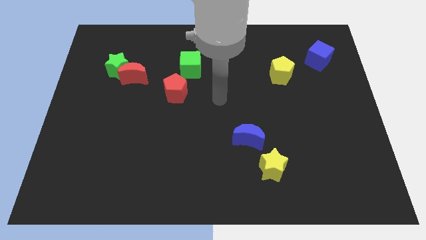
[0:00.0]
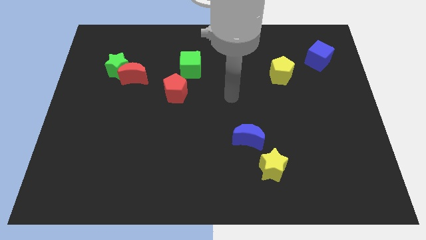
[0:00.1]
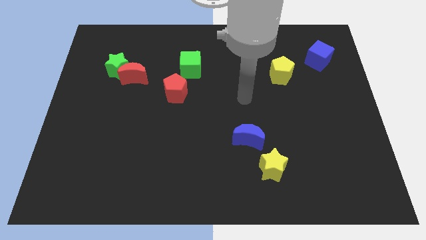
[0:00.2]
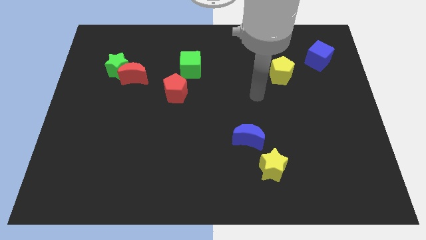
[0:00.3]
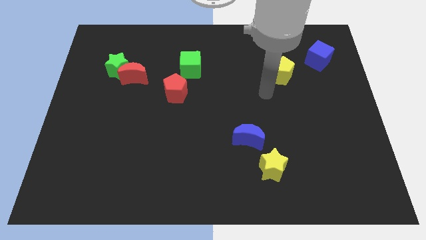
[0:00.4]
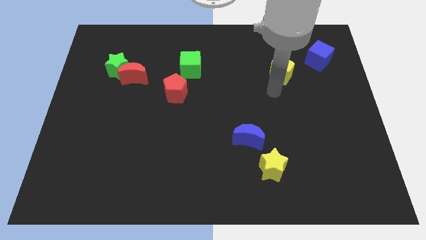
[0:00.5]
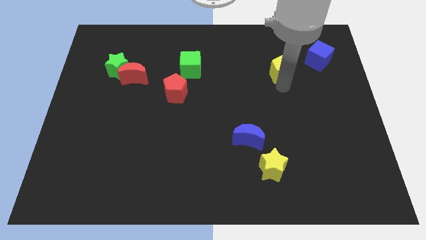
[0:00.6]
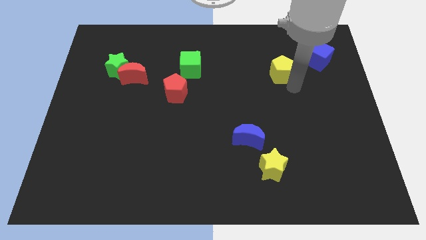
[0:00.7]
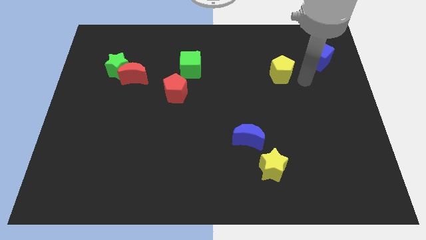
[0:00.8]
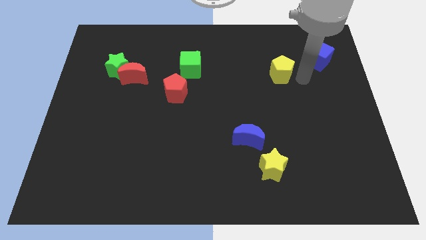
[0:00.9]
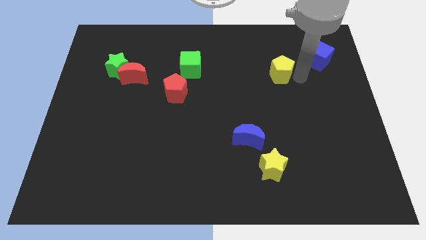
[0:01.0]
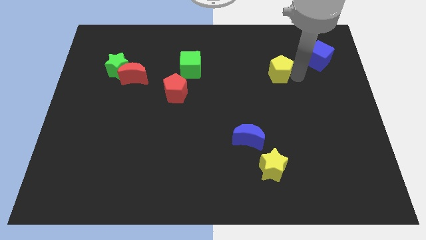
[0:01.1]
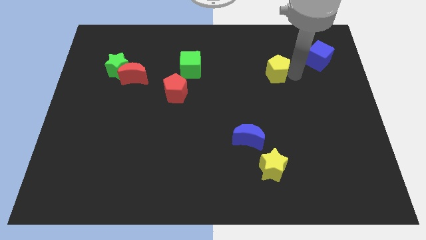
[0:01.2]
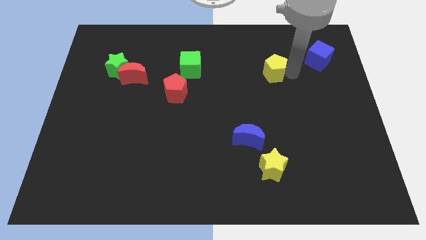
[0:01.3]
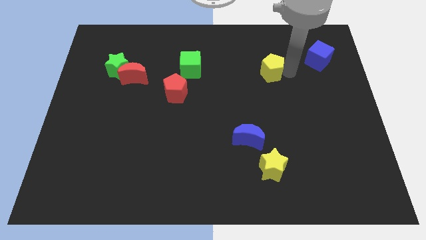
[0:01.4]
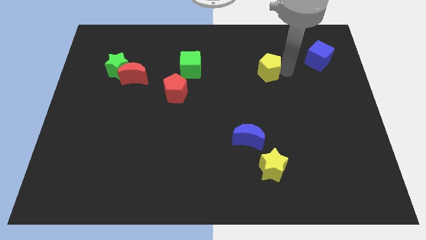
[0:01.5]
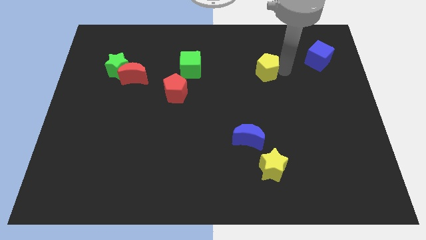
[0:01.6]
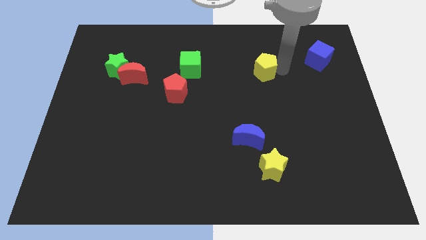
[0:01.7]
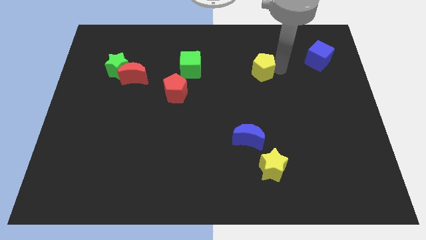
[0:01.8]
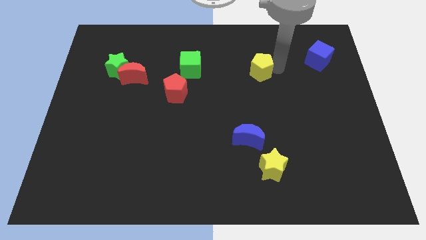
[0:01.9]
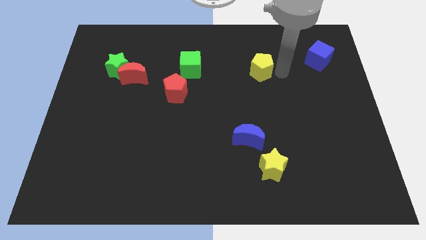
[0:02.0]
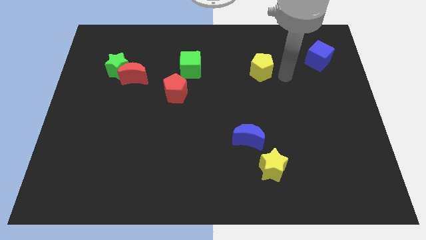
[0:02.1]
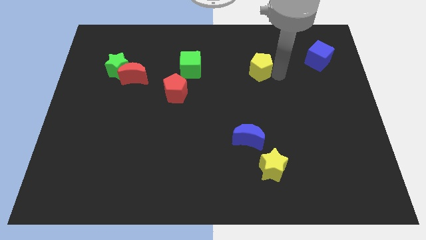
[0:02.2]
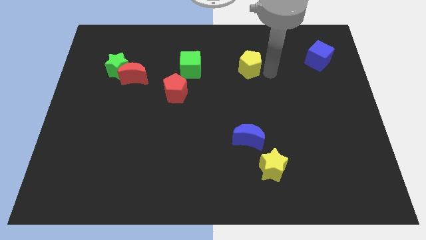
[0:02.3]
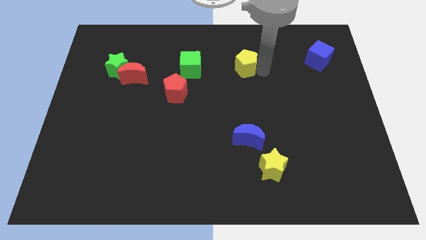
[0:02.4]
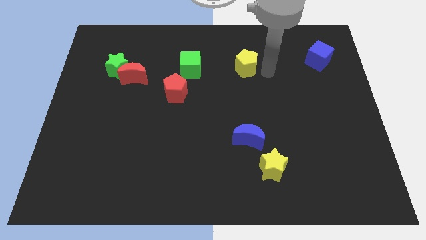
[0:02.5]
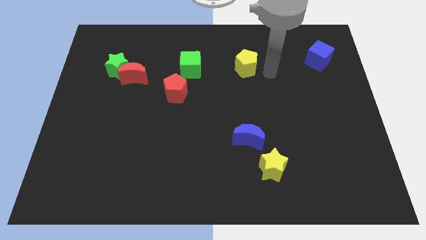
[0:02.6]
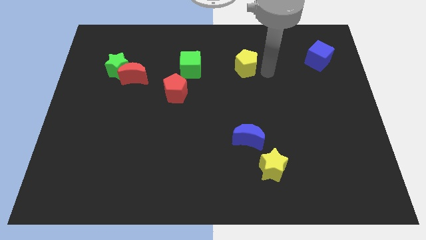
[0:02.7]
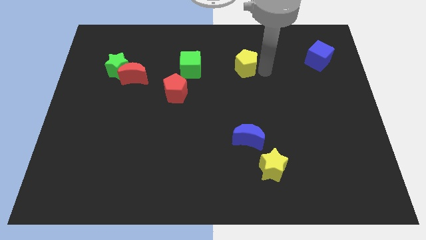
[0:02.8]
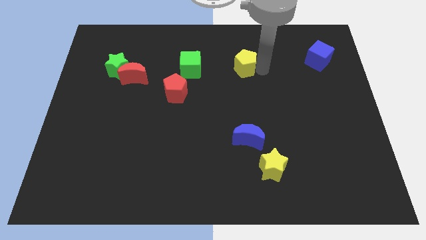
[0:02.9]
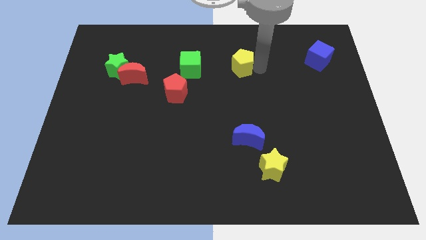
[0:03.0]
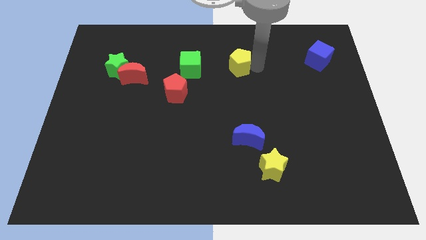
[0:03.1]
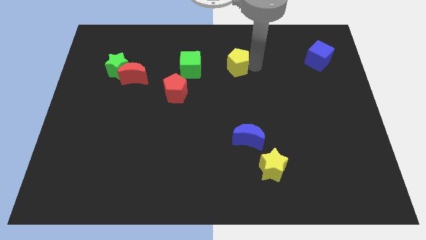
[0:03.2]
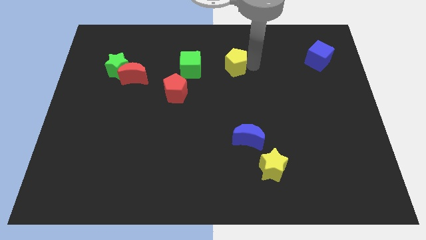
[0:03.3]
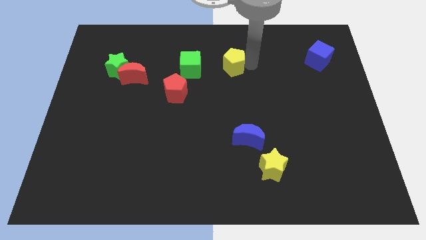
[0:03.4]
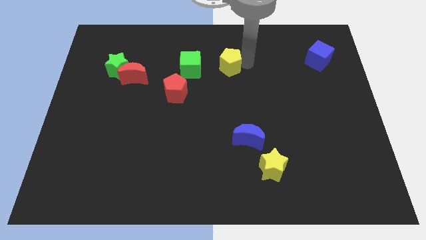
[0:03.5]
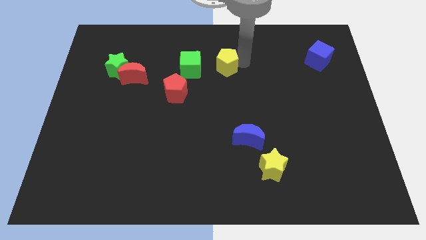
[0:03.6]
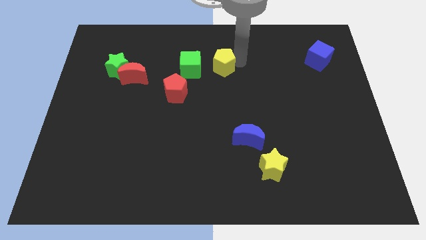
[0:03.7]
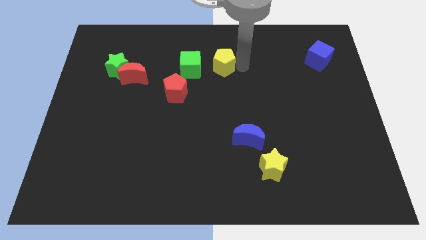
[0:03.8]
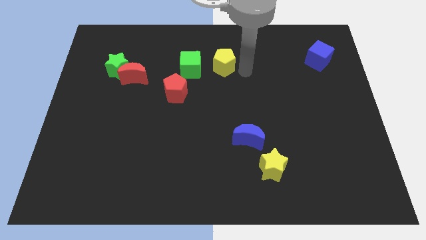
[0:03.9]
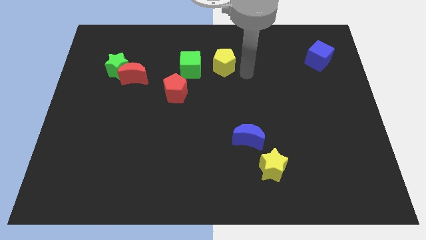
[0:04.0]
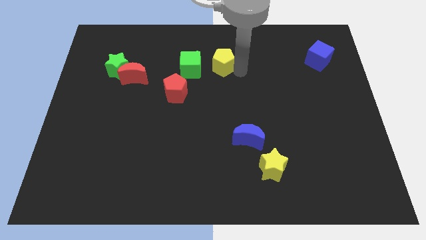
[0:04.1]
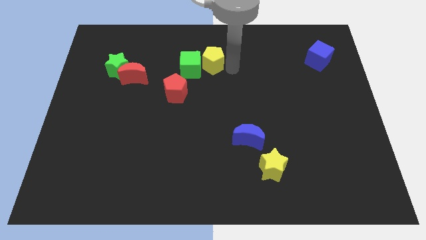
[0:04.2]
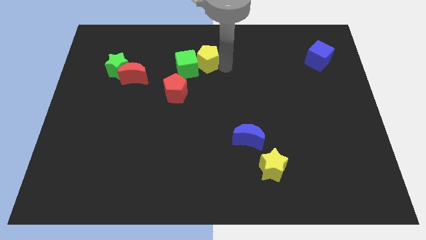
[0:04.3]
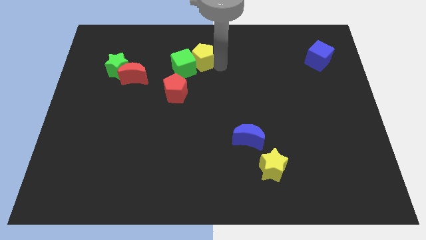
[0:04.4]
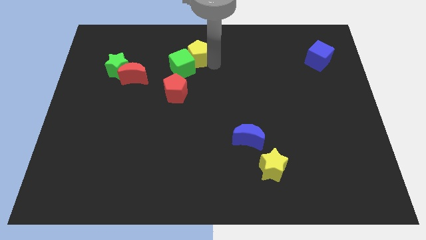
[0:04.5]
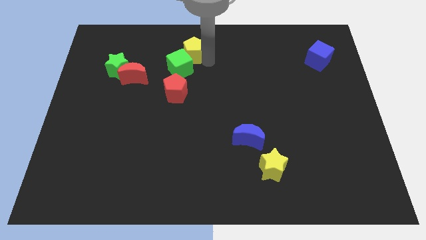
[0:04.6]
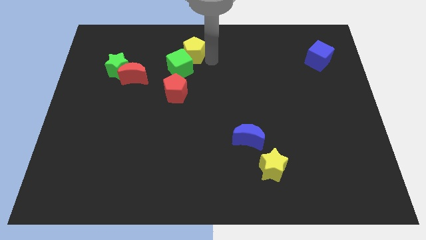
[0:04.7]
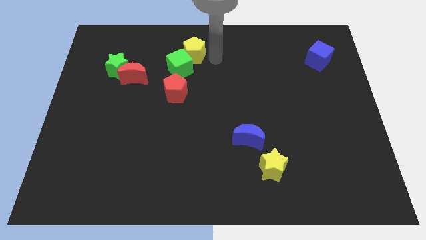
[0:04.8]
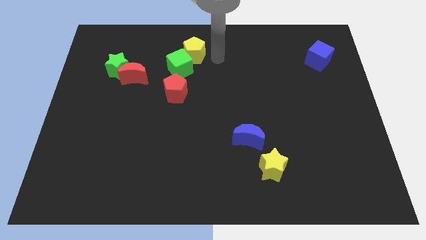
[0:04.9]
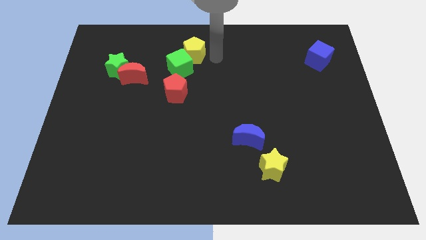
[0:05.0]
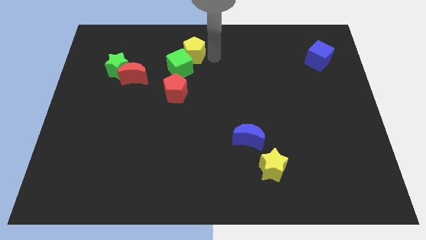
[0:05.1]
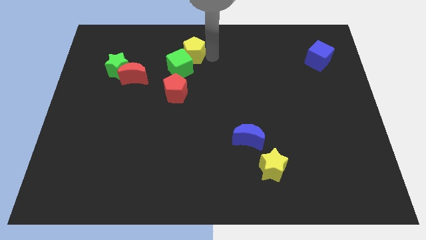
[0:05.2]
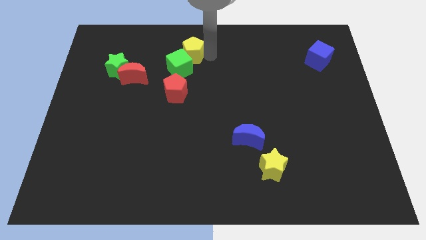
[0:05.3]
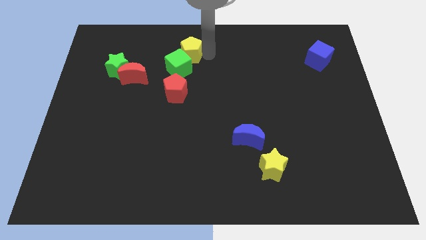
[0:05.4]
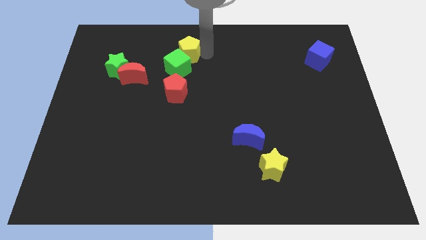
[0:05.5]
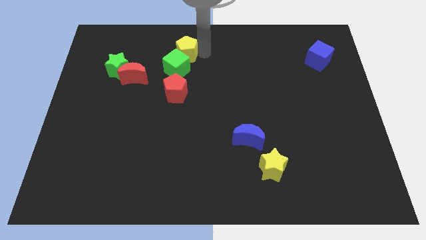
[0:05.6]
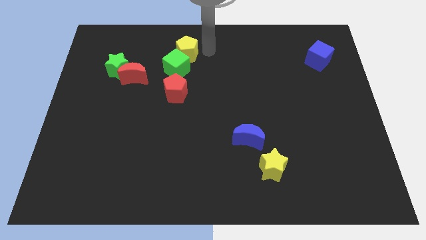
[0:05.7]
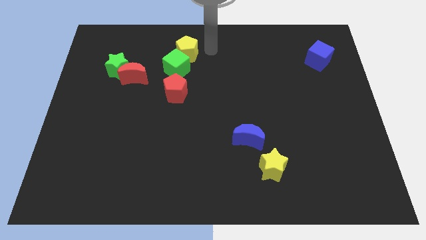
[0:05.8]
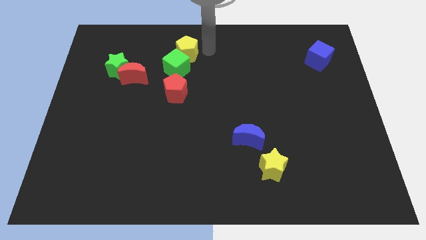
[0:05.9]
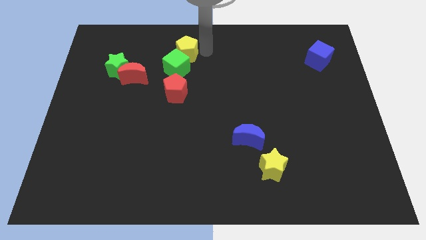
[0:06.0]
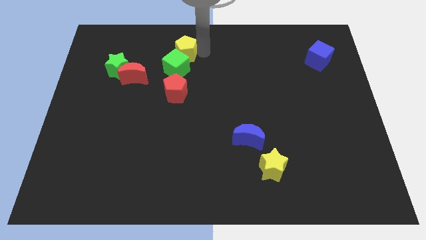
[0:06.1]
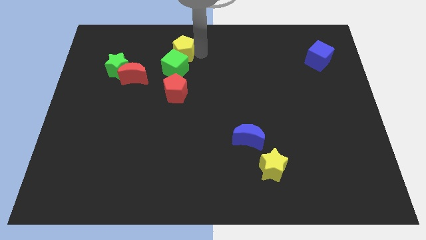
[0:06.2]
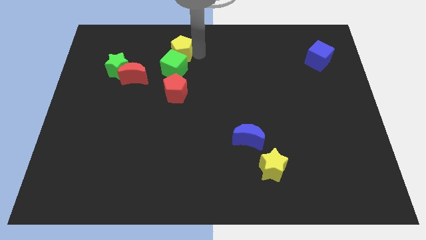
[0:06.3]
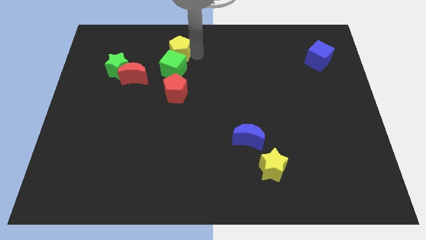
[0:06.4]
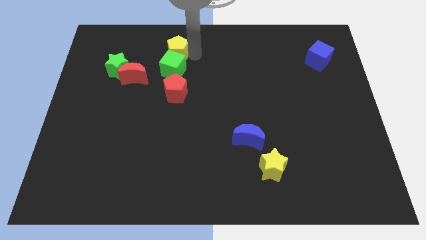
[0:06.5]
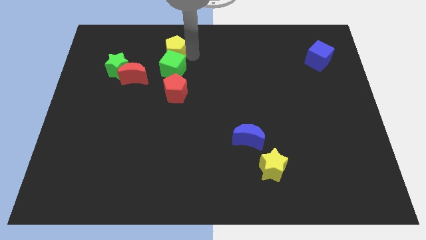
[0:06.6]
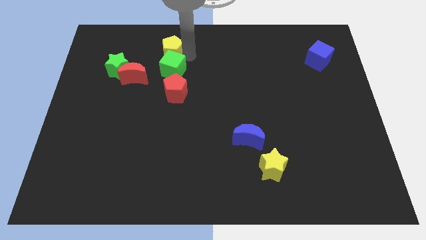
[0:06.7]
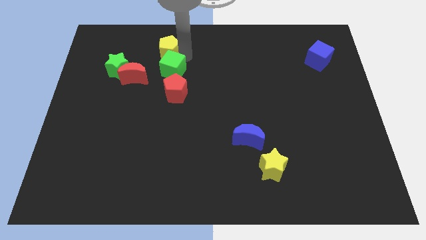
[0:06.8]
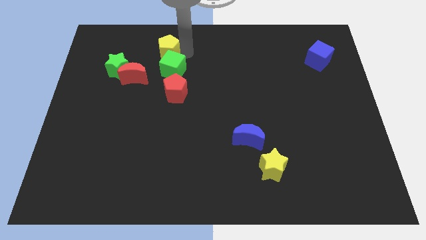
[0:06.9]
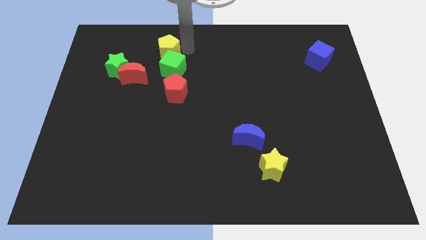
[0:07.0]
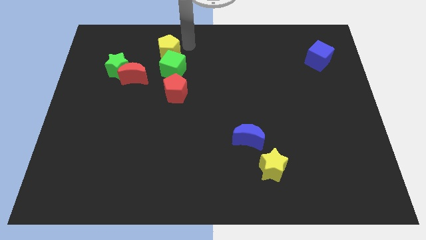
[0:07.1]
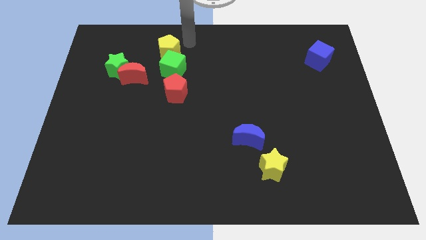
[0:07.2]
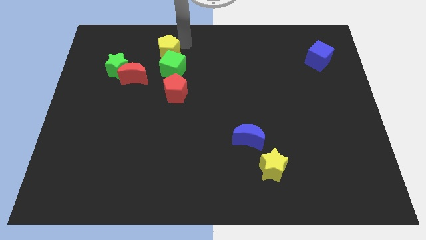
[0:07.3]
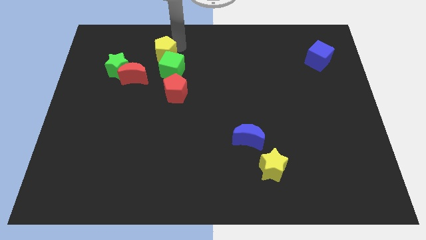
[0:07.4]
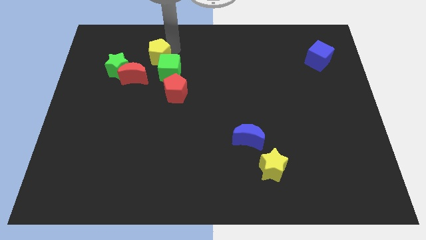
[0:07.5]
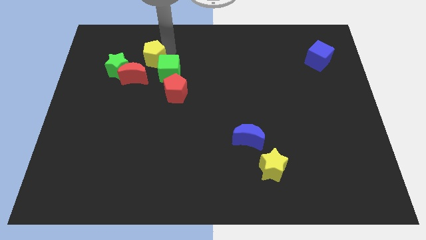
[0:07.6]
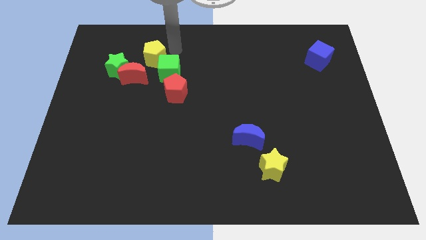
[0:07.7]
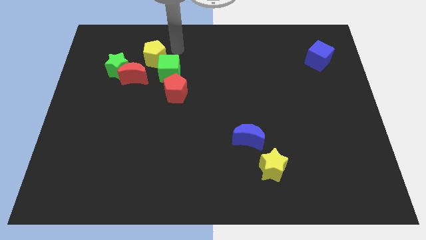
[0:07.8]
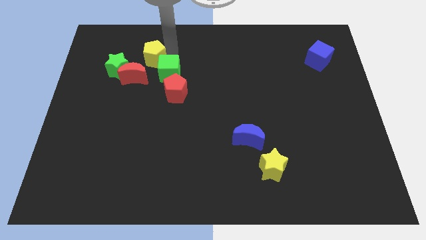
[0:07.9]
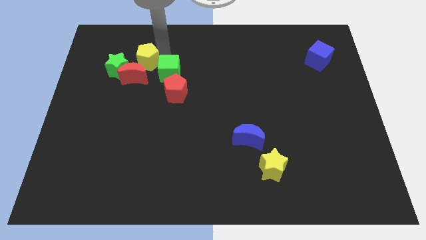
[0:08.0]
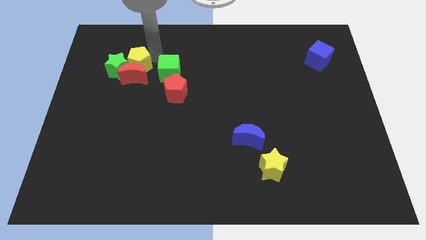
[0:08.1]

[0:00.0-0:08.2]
slide the yellow pentagon next to the green star
